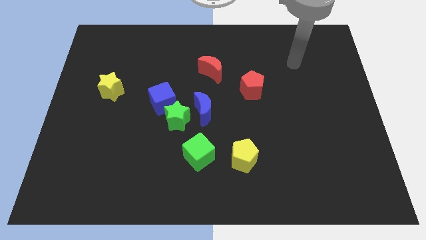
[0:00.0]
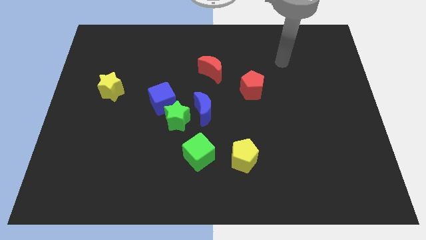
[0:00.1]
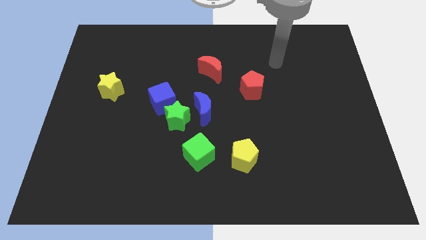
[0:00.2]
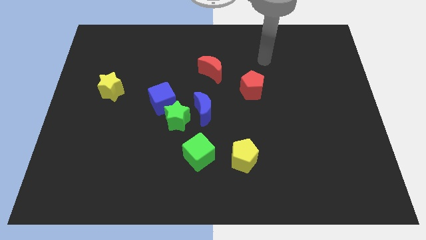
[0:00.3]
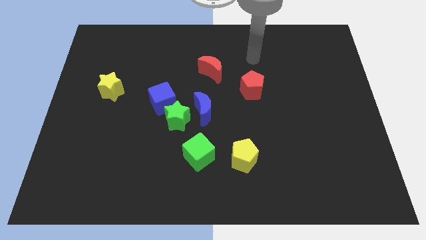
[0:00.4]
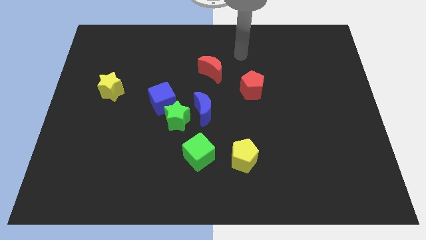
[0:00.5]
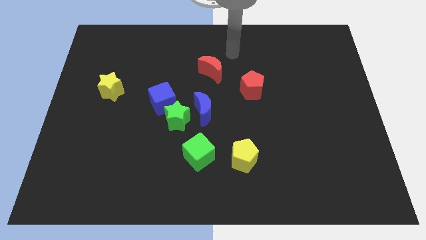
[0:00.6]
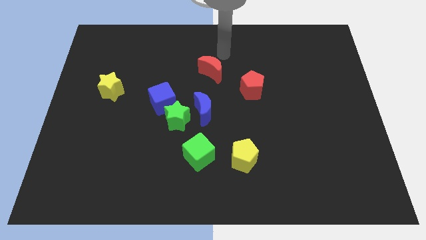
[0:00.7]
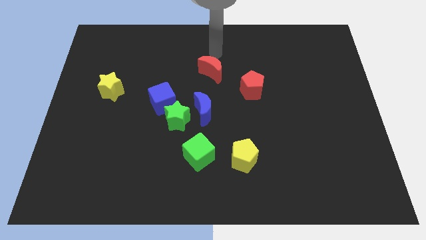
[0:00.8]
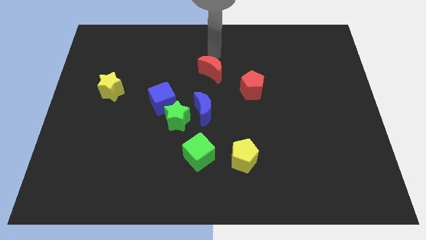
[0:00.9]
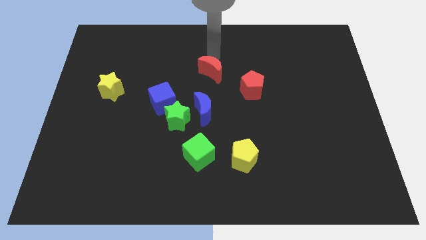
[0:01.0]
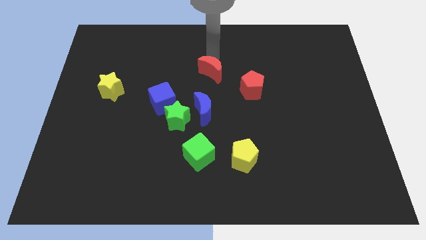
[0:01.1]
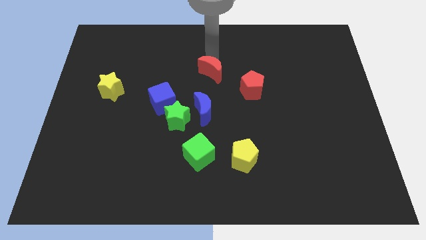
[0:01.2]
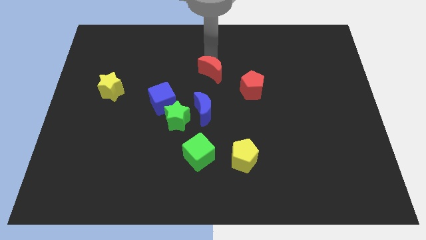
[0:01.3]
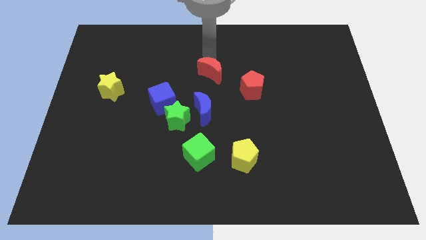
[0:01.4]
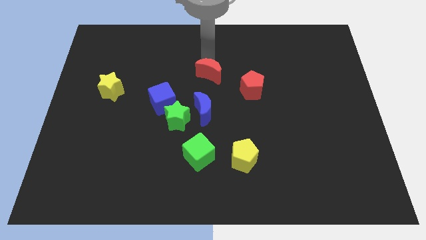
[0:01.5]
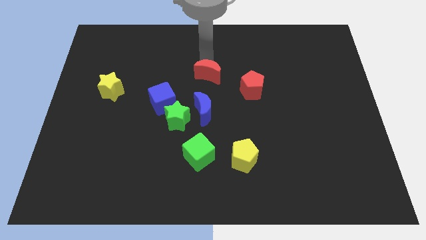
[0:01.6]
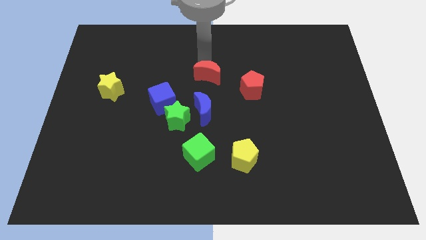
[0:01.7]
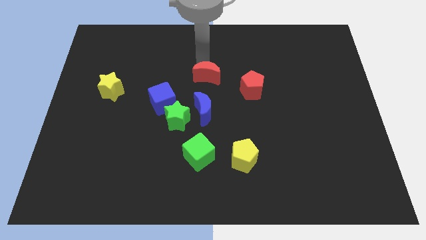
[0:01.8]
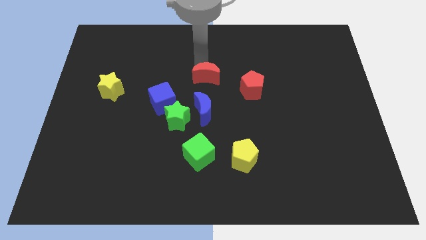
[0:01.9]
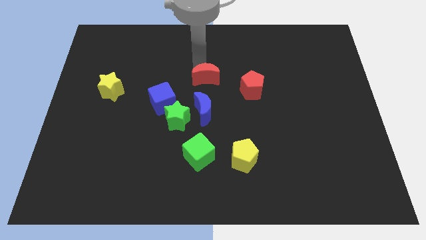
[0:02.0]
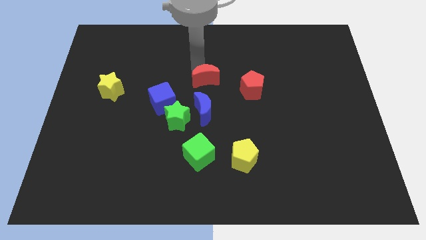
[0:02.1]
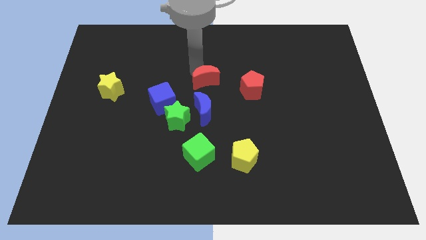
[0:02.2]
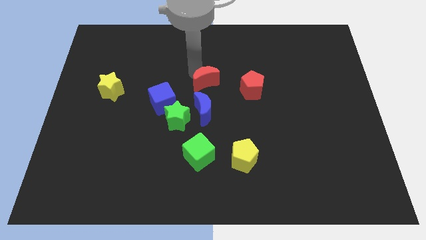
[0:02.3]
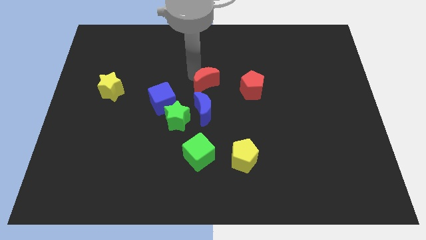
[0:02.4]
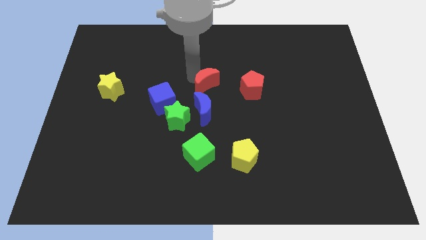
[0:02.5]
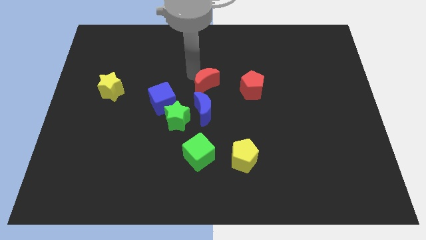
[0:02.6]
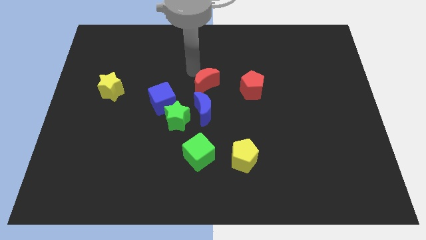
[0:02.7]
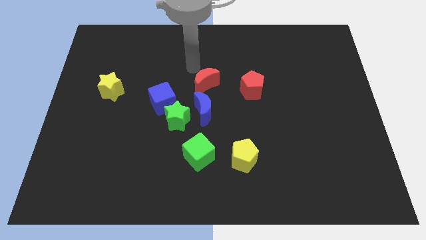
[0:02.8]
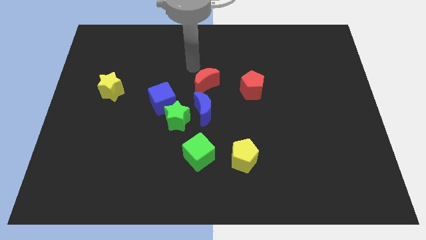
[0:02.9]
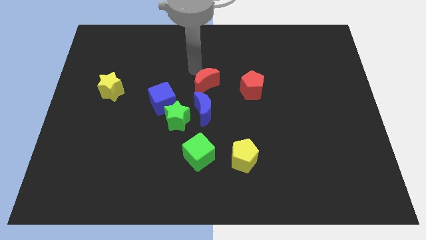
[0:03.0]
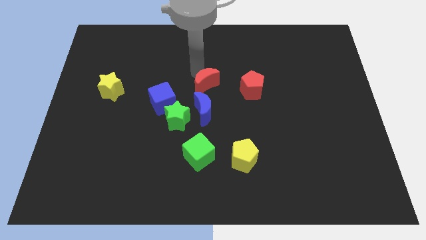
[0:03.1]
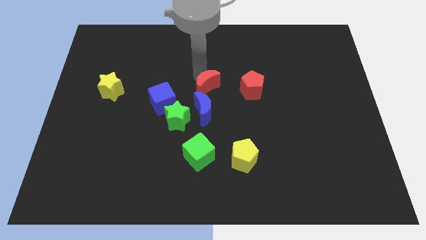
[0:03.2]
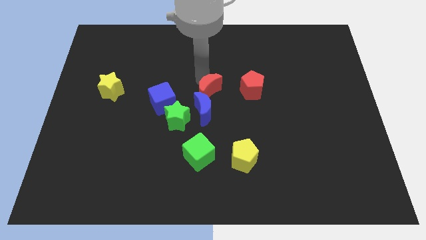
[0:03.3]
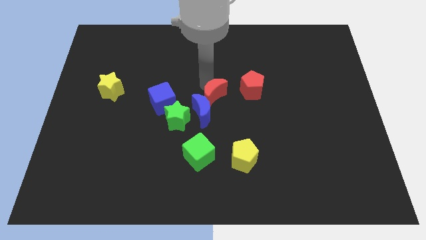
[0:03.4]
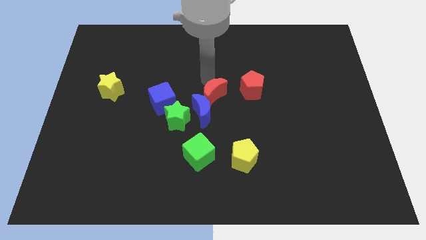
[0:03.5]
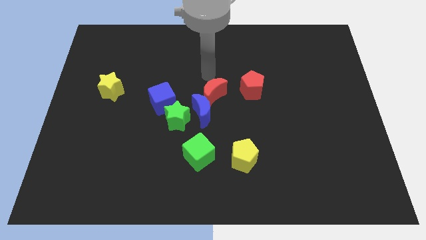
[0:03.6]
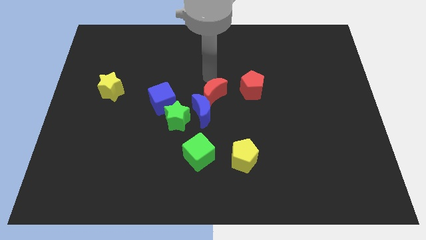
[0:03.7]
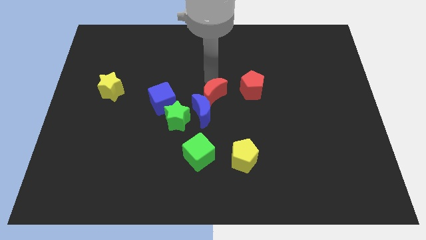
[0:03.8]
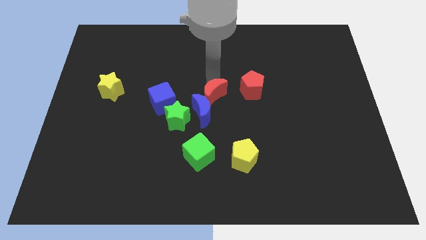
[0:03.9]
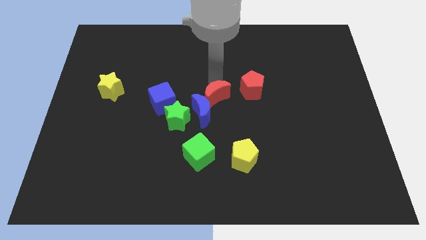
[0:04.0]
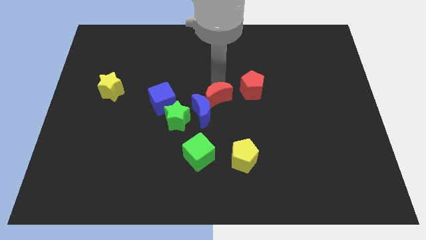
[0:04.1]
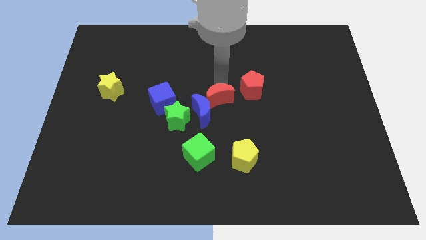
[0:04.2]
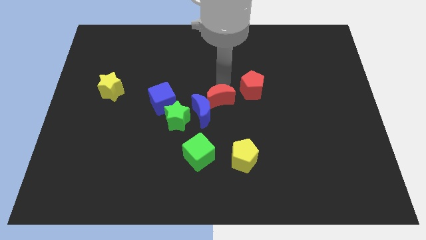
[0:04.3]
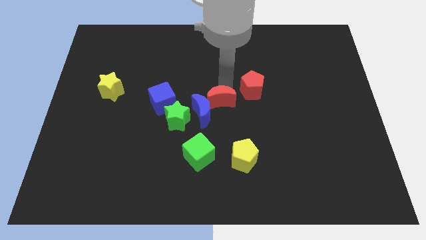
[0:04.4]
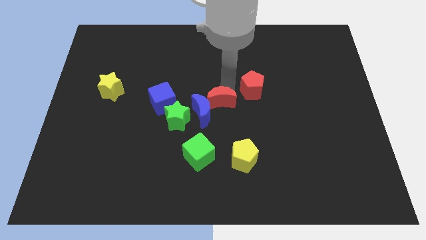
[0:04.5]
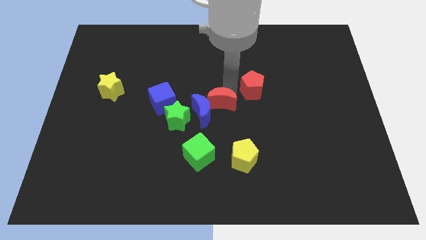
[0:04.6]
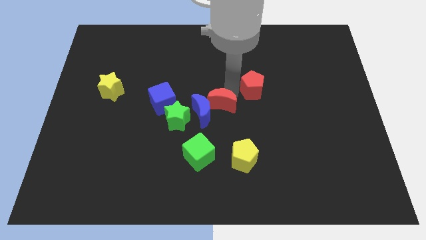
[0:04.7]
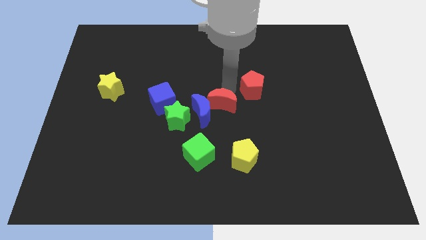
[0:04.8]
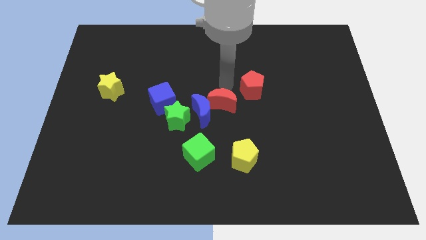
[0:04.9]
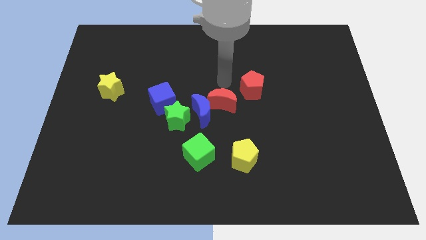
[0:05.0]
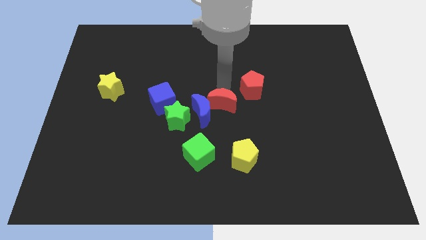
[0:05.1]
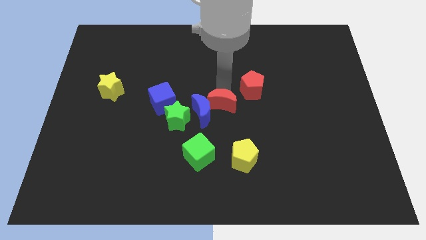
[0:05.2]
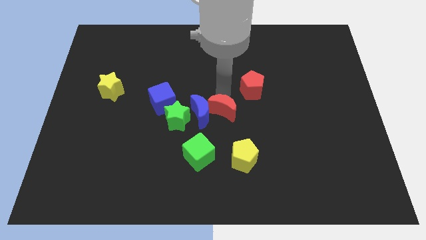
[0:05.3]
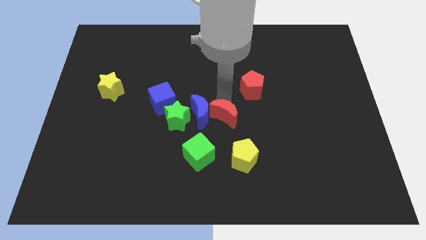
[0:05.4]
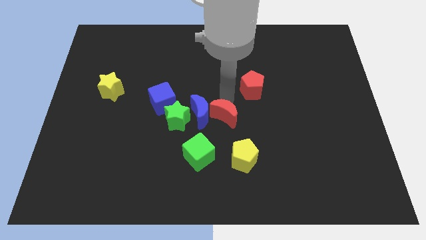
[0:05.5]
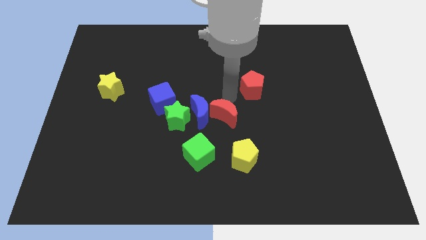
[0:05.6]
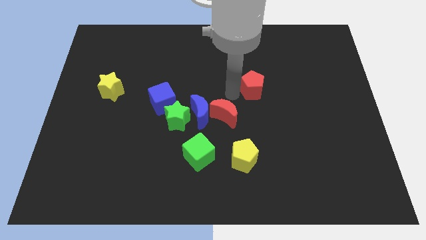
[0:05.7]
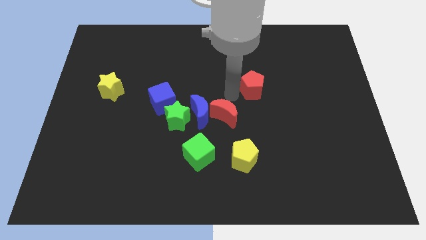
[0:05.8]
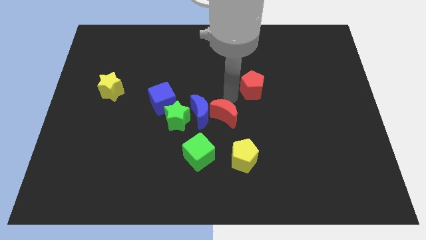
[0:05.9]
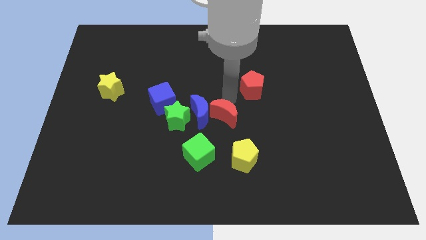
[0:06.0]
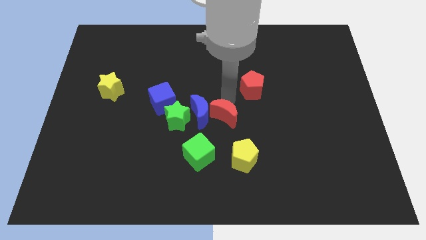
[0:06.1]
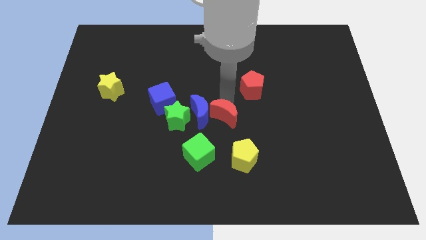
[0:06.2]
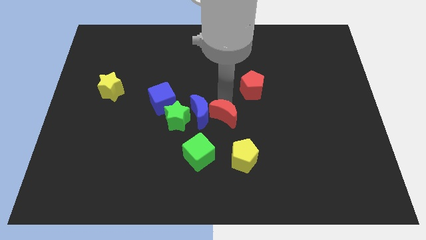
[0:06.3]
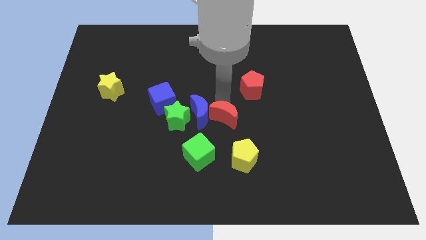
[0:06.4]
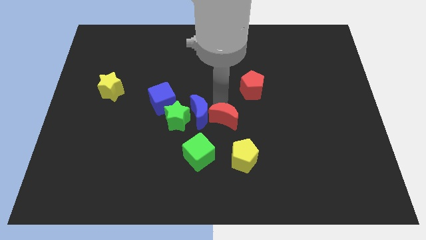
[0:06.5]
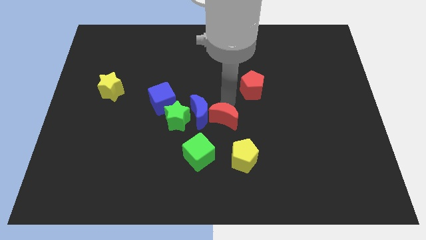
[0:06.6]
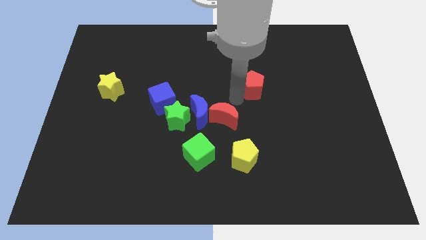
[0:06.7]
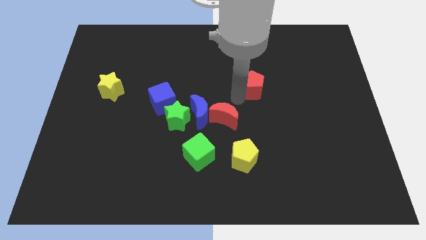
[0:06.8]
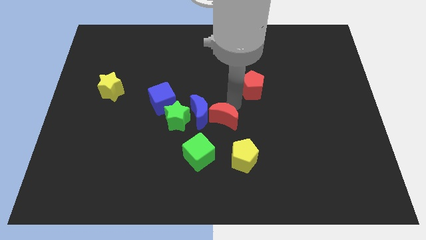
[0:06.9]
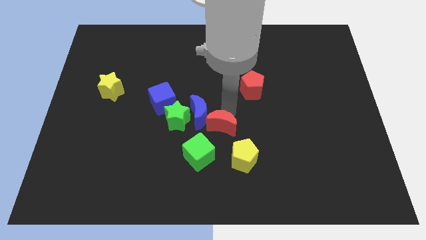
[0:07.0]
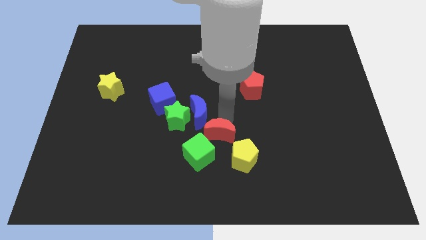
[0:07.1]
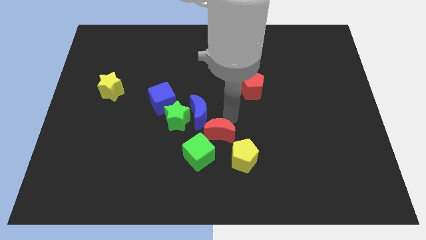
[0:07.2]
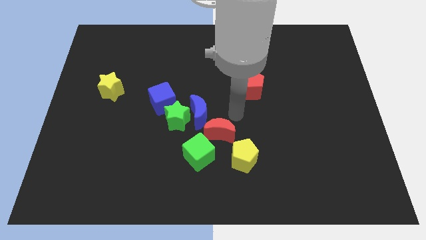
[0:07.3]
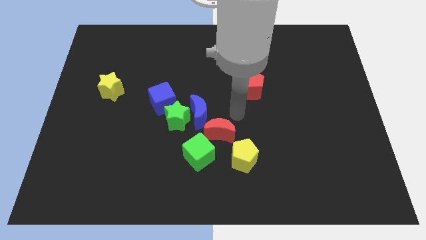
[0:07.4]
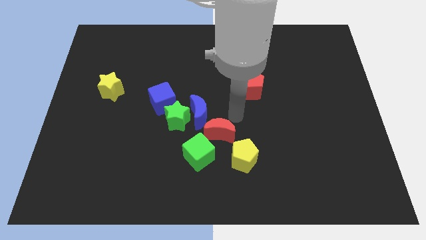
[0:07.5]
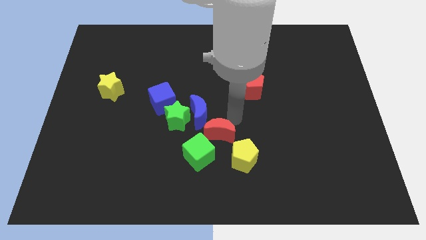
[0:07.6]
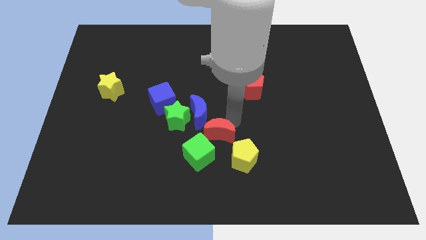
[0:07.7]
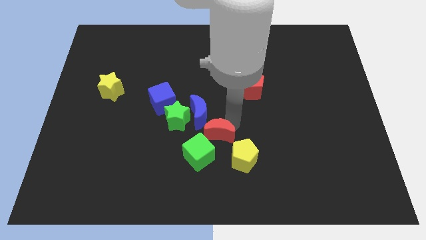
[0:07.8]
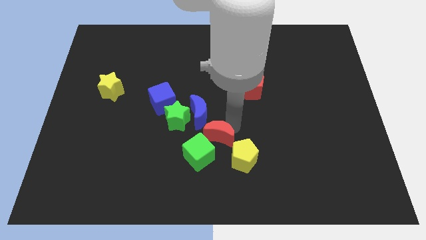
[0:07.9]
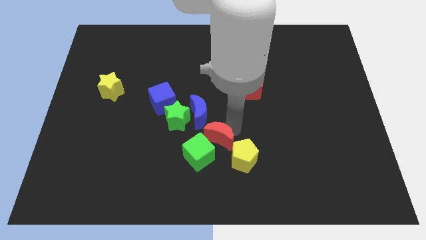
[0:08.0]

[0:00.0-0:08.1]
push the red moon close to the green cube
